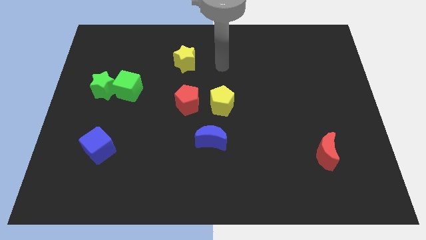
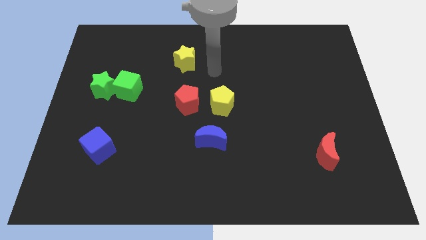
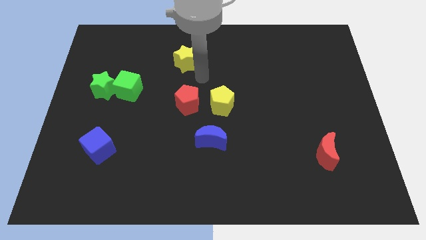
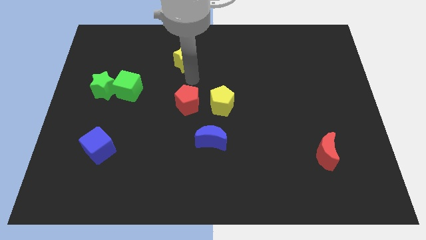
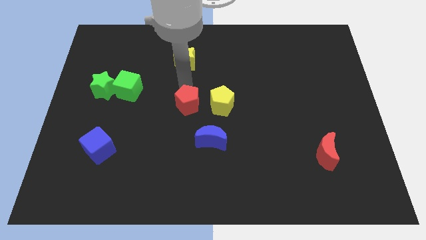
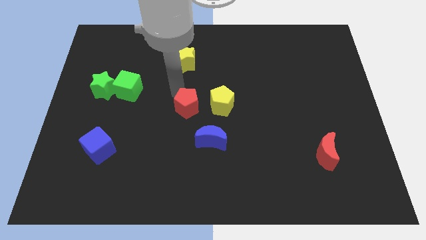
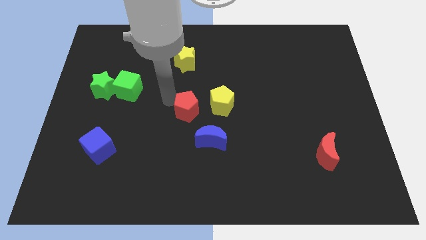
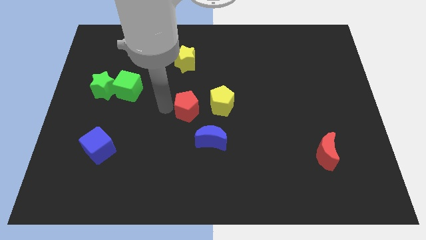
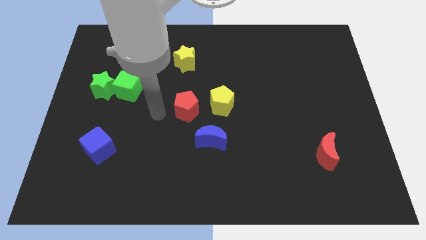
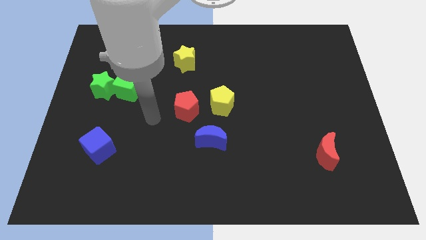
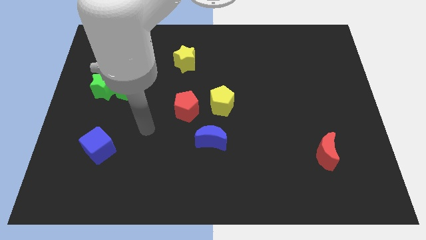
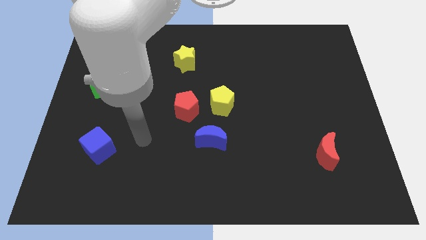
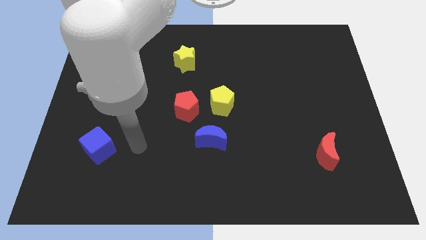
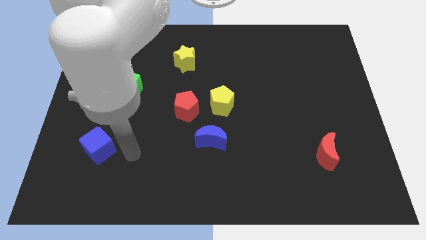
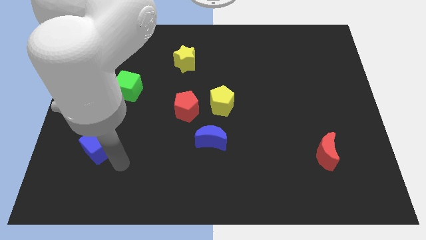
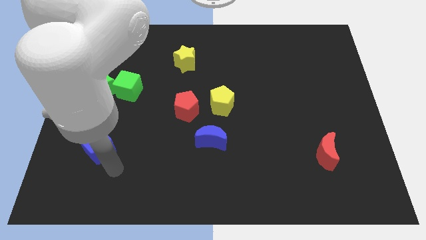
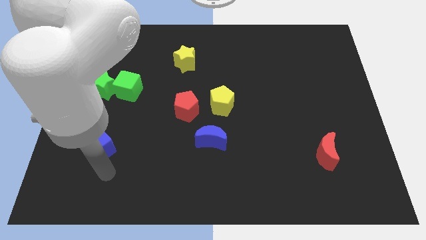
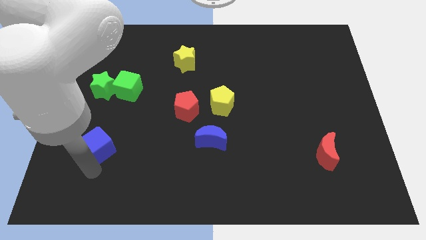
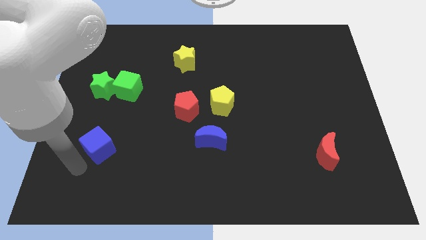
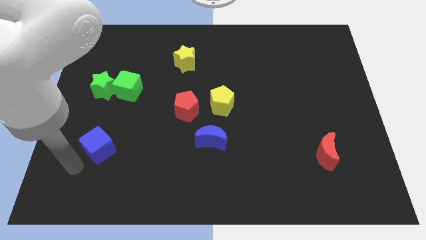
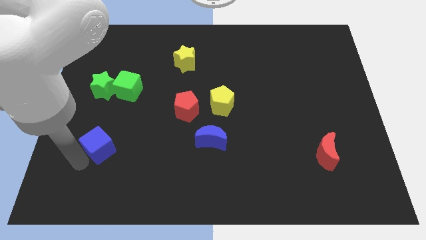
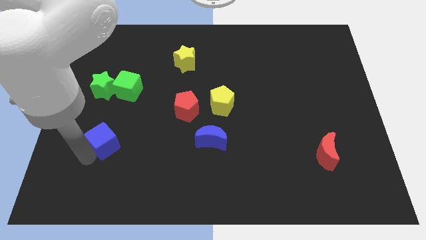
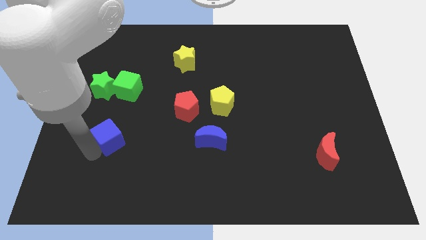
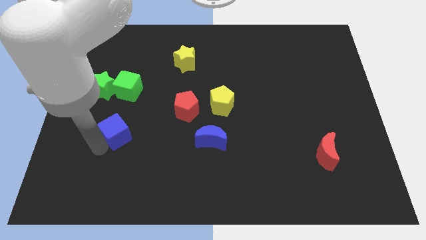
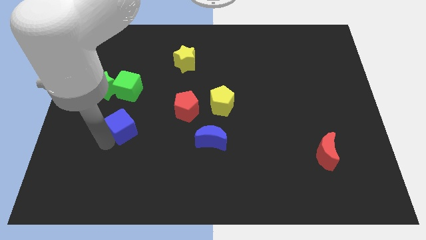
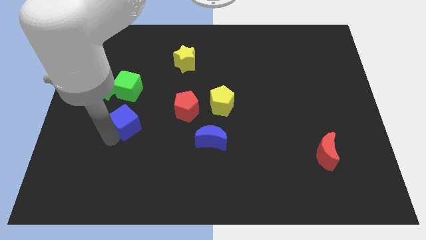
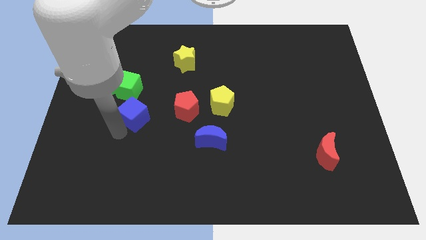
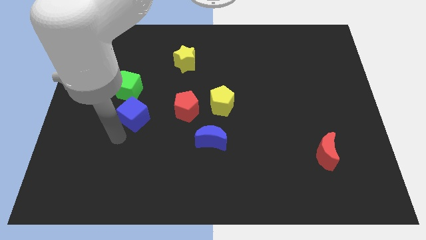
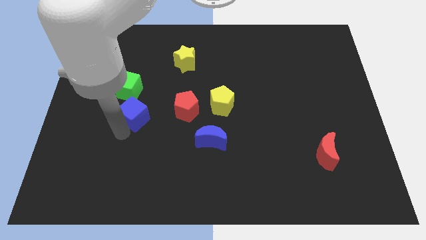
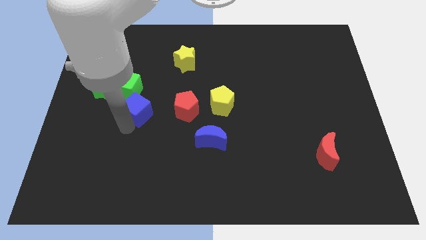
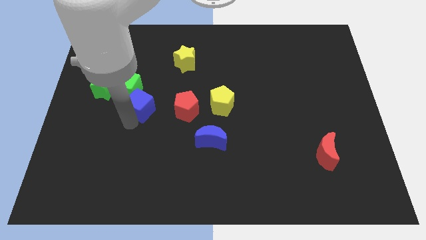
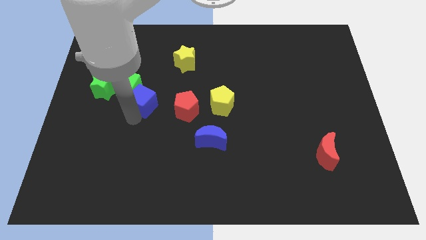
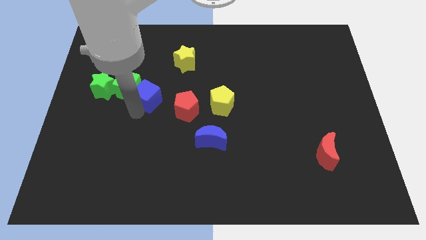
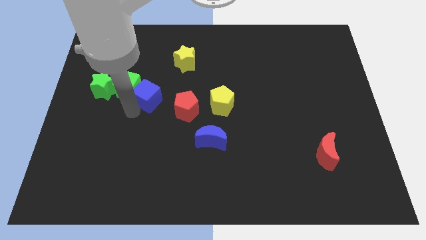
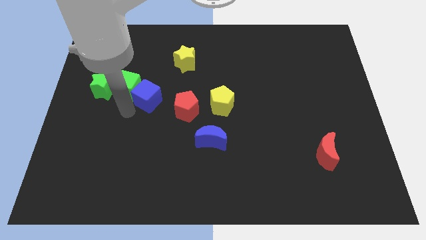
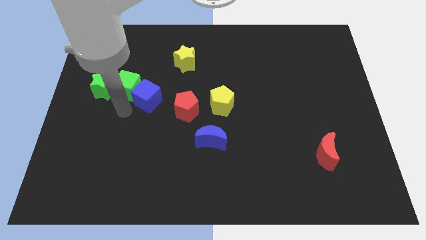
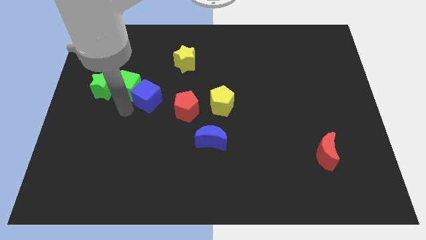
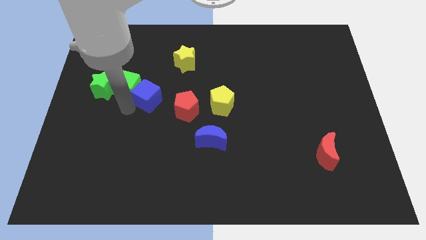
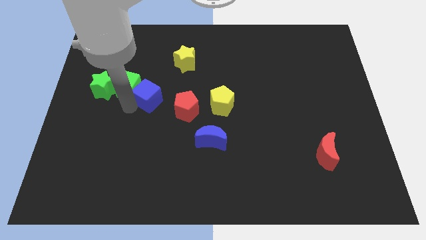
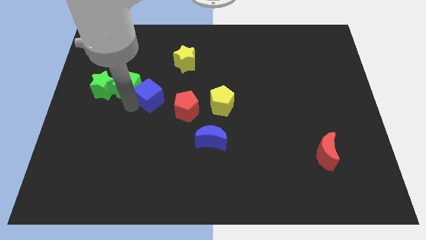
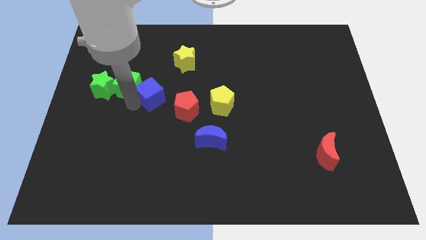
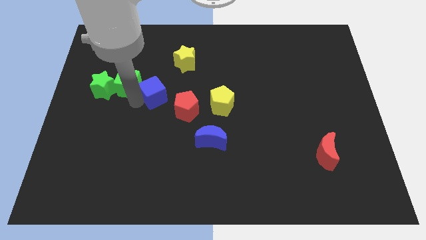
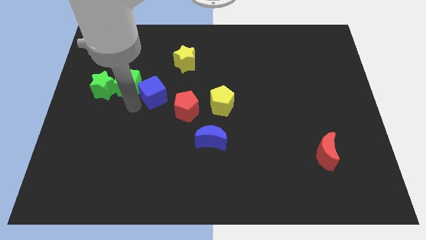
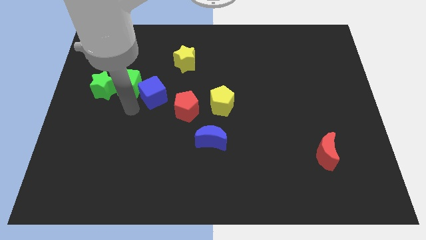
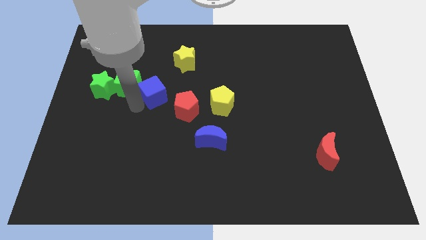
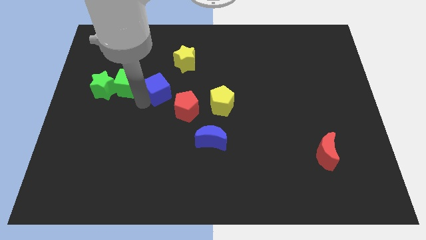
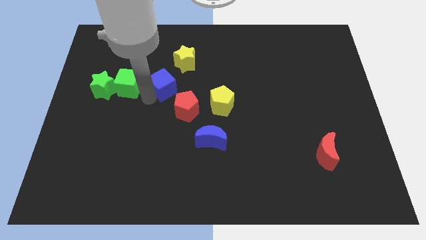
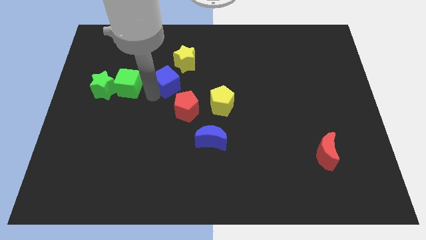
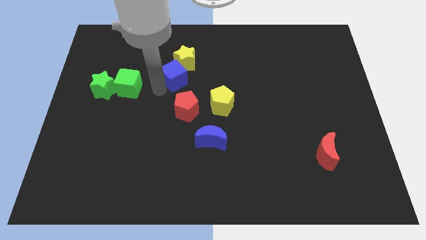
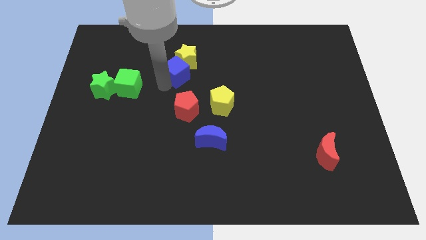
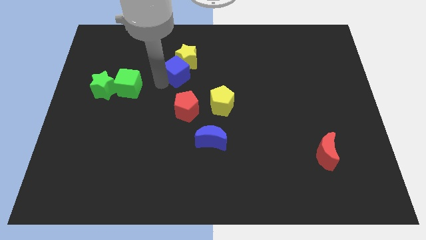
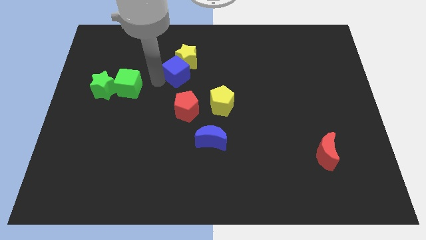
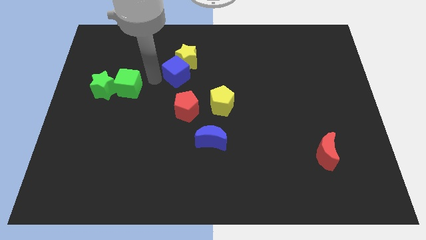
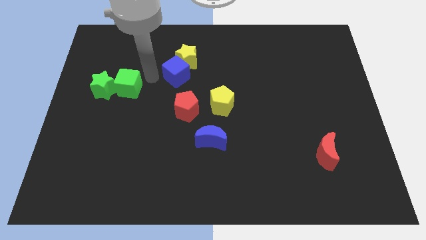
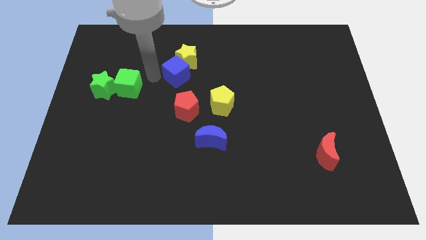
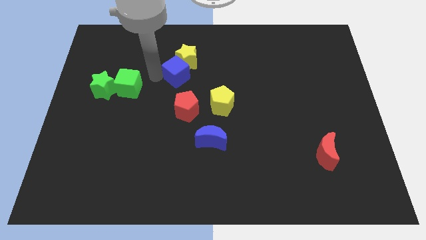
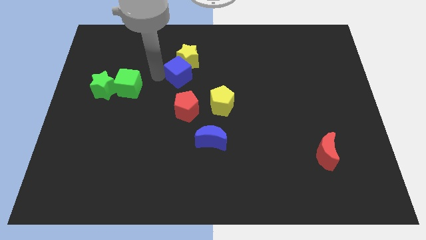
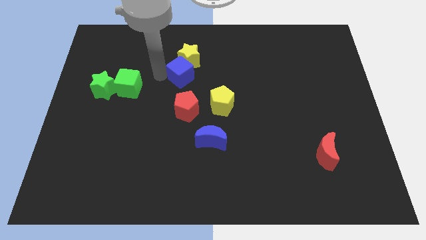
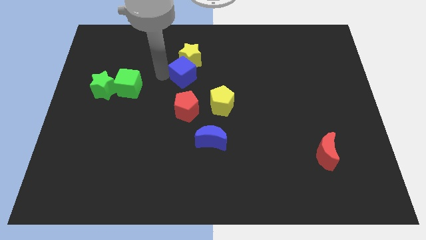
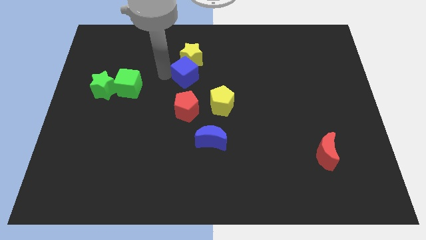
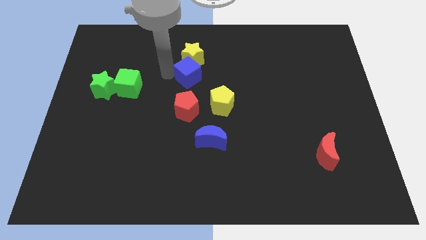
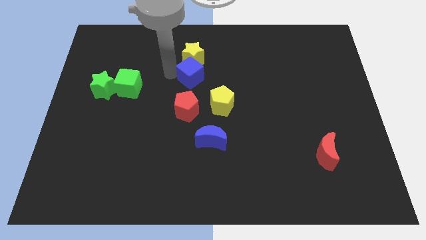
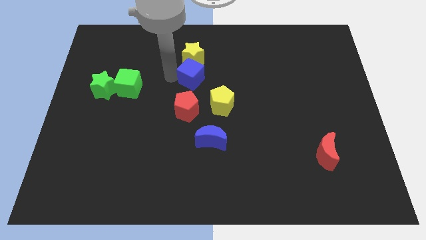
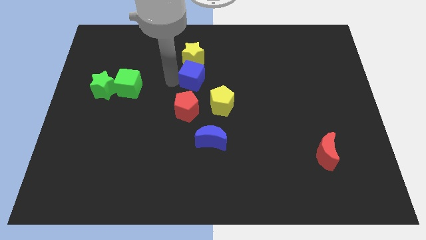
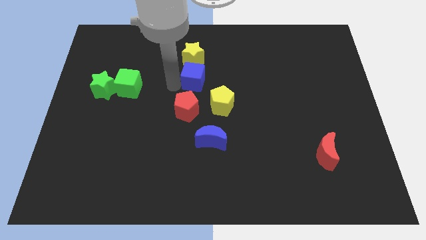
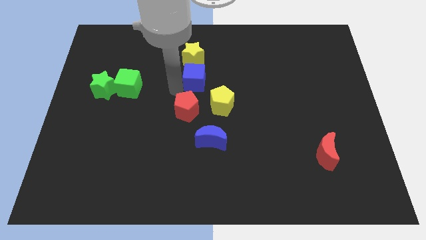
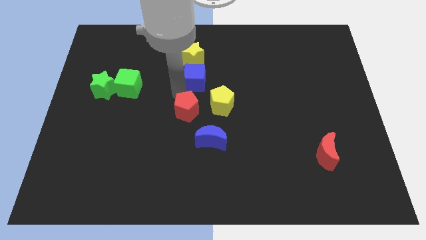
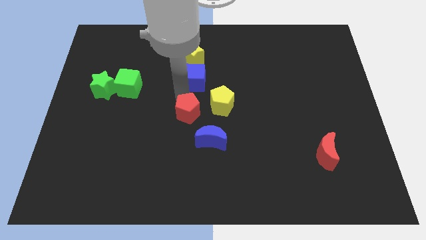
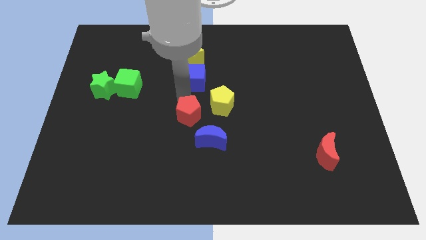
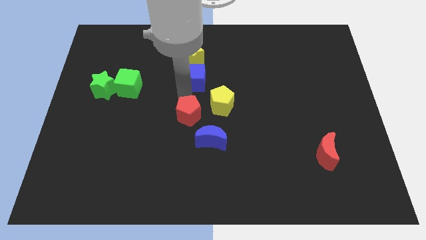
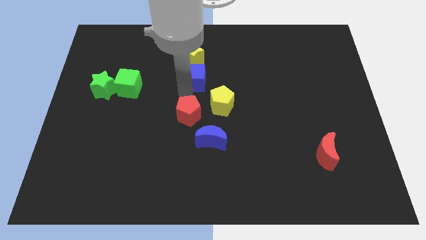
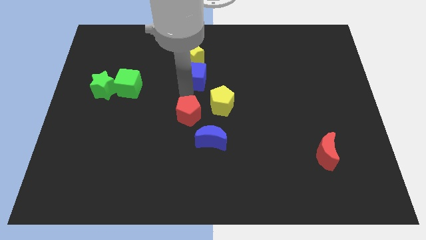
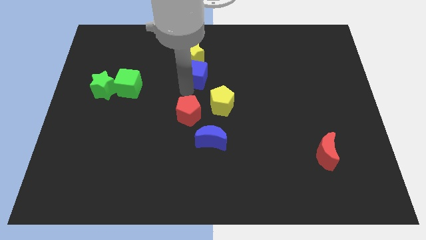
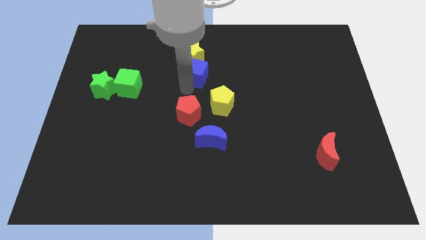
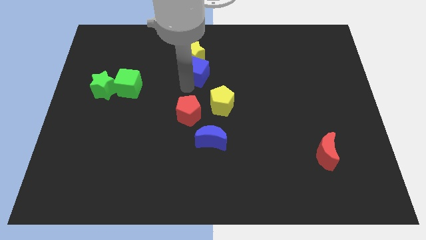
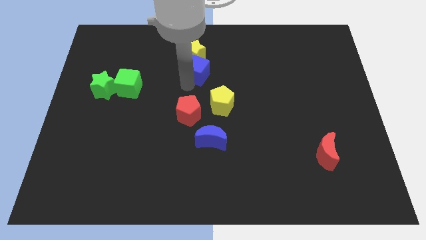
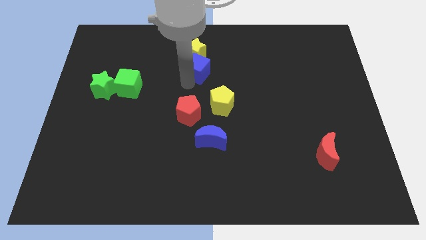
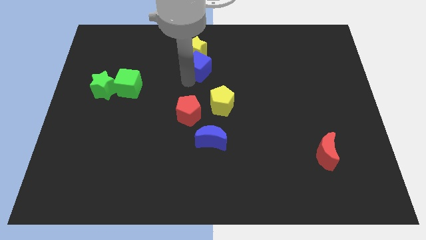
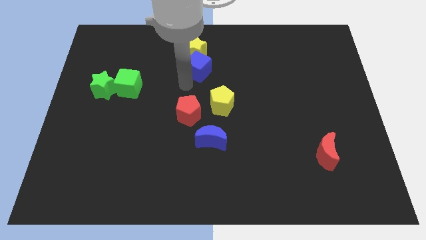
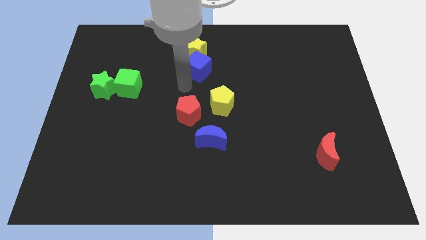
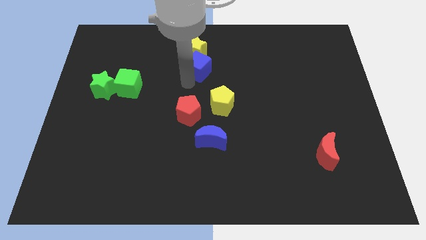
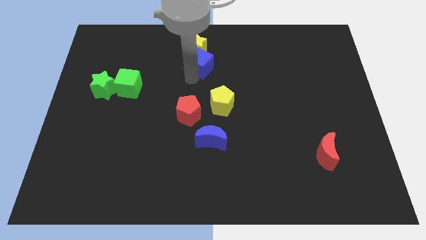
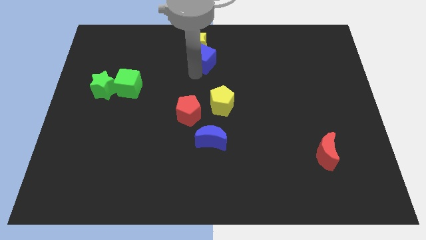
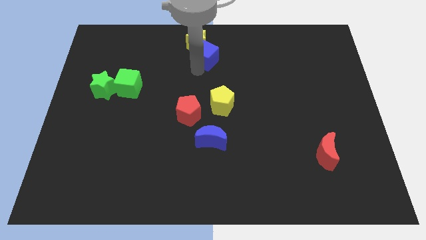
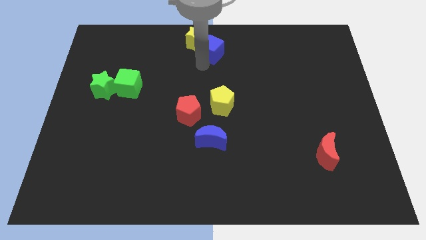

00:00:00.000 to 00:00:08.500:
slide the blue cube to the top
